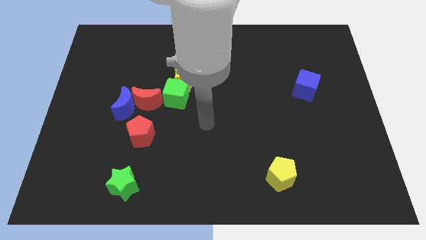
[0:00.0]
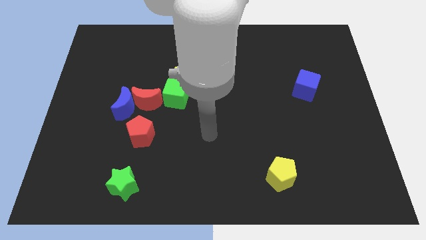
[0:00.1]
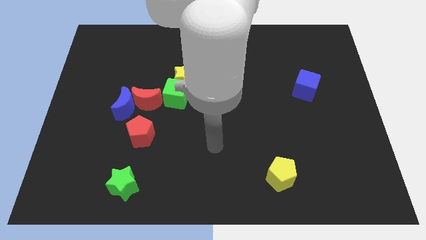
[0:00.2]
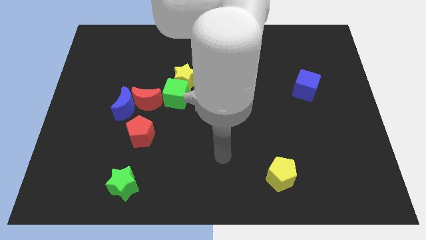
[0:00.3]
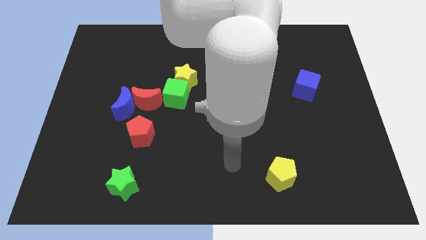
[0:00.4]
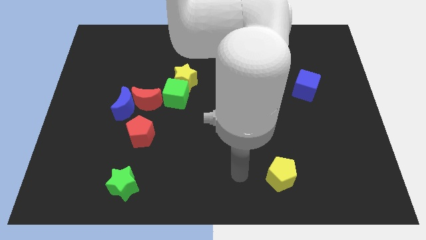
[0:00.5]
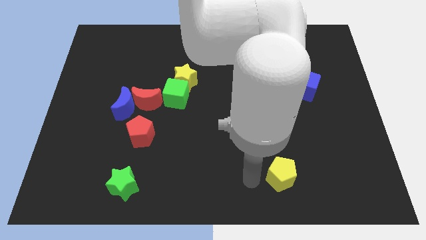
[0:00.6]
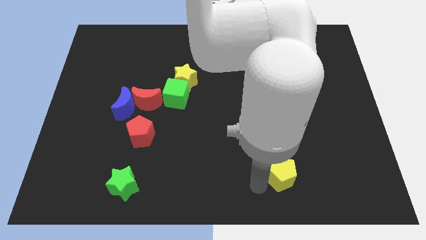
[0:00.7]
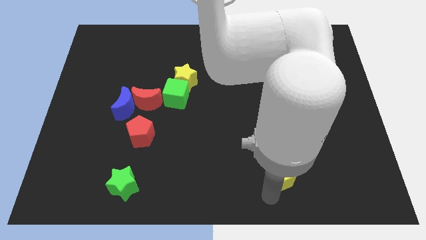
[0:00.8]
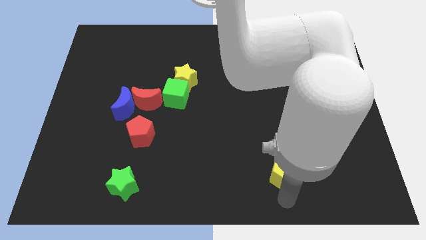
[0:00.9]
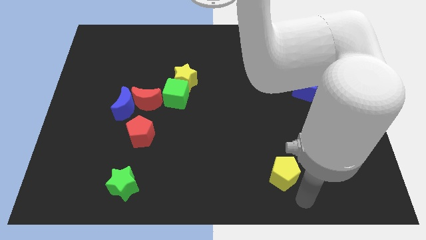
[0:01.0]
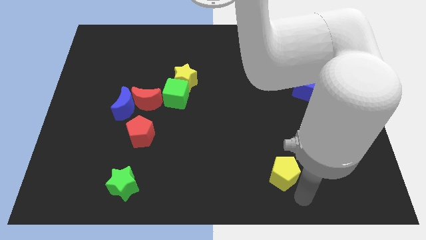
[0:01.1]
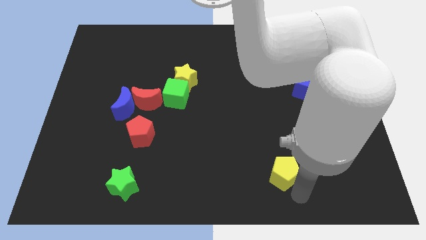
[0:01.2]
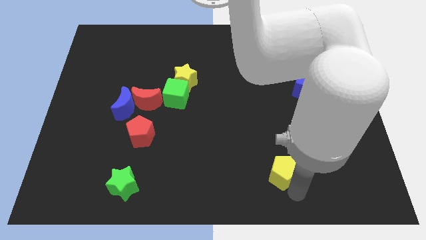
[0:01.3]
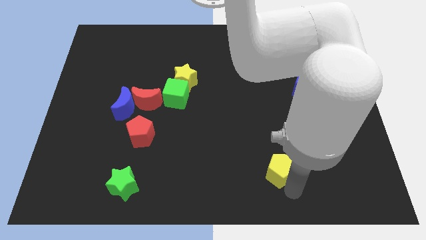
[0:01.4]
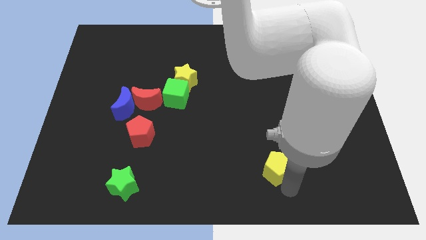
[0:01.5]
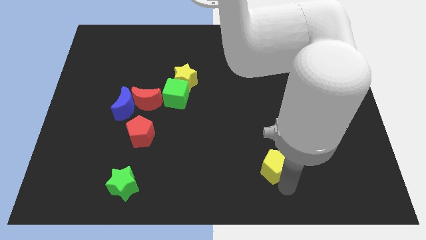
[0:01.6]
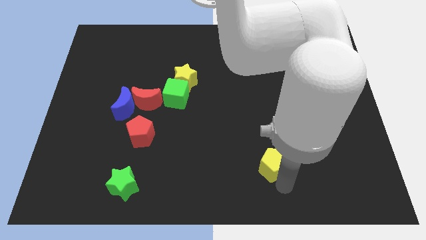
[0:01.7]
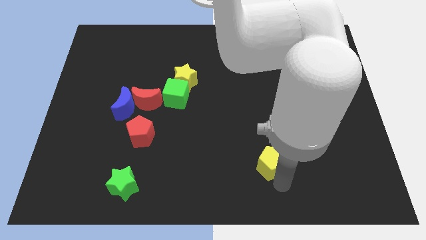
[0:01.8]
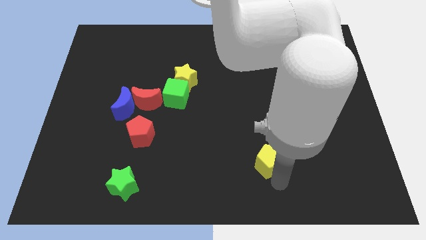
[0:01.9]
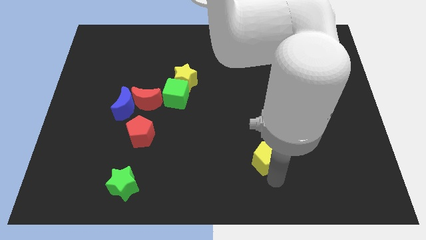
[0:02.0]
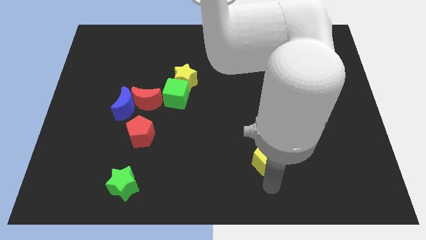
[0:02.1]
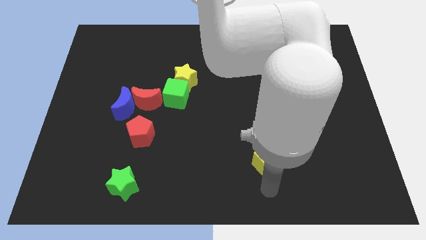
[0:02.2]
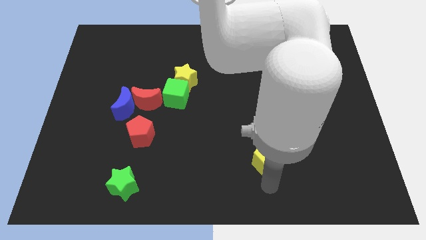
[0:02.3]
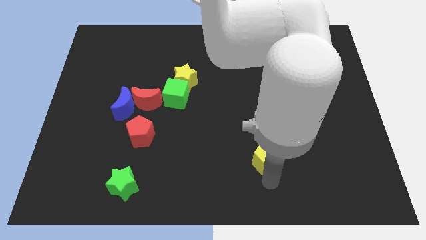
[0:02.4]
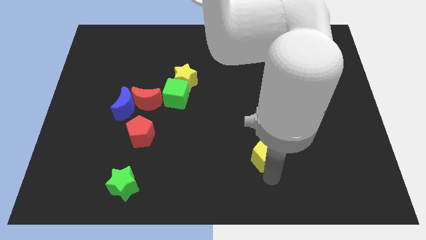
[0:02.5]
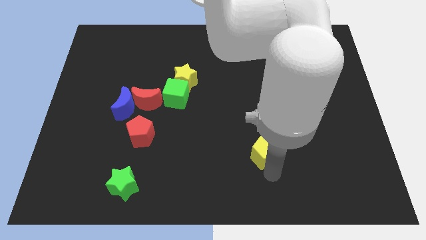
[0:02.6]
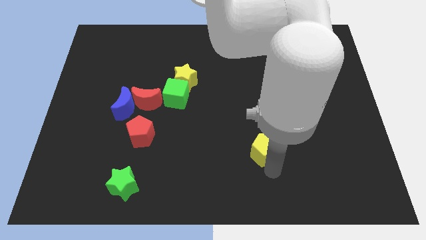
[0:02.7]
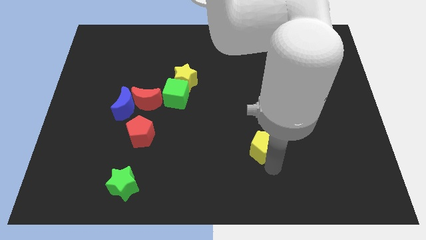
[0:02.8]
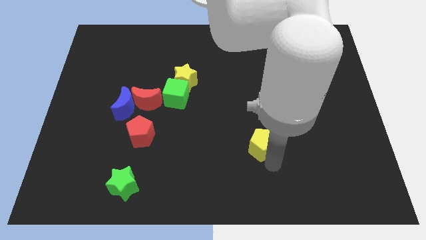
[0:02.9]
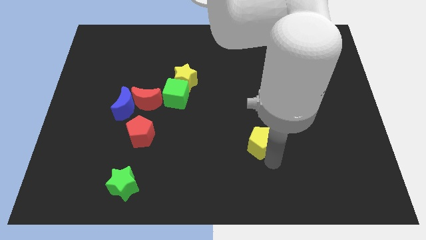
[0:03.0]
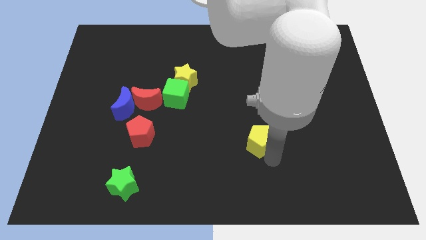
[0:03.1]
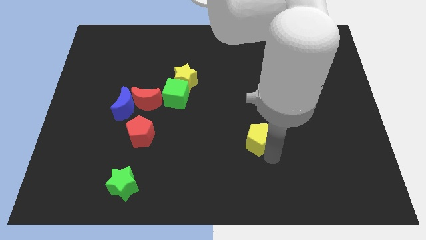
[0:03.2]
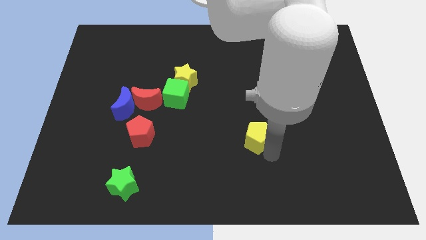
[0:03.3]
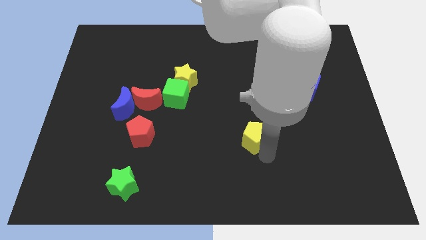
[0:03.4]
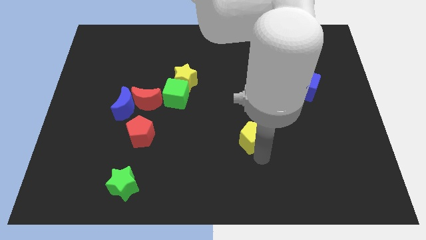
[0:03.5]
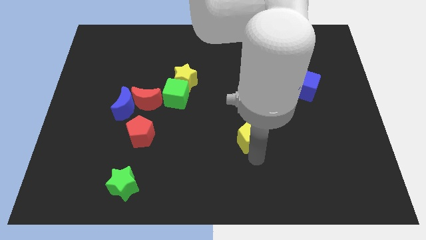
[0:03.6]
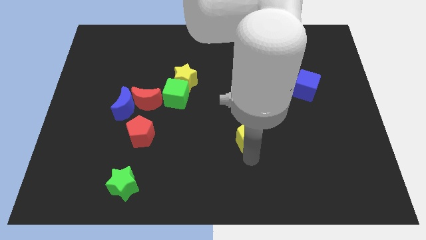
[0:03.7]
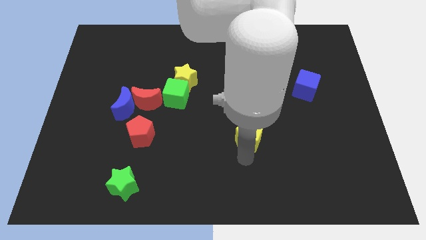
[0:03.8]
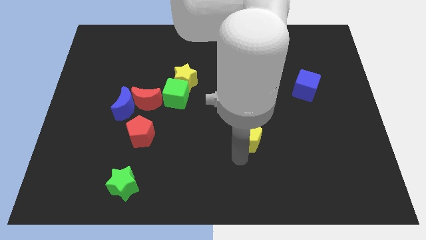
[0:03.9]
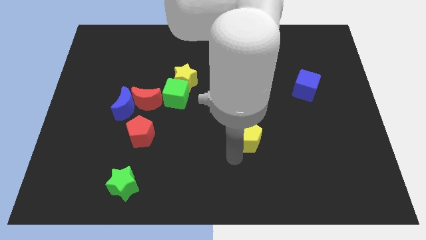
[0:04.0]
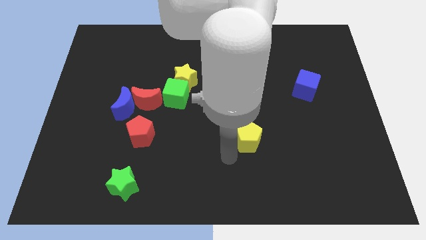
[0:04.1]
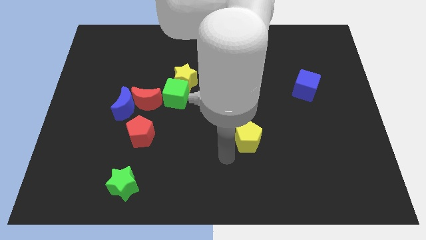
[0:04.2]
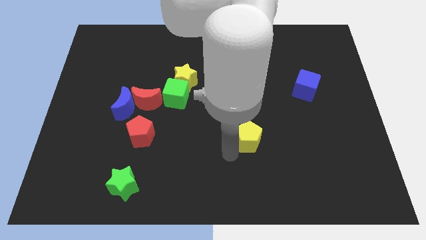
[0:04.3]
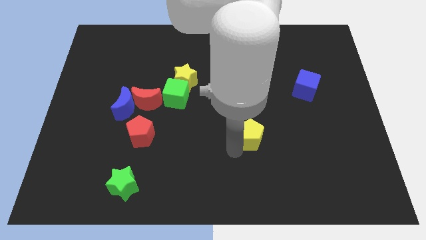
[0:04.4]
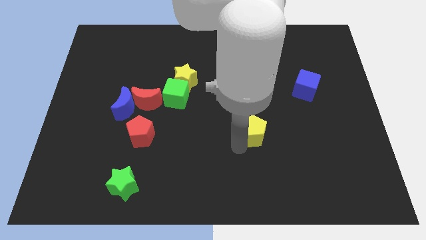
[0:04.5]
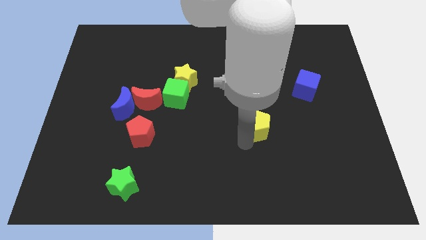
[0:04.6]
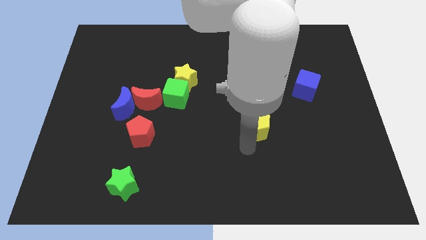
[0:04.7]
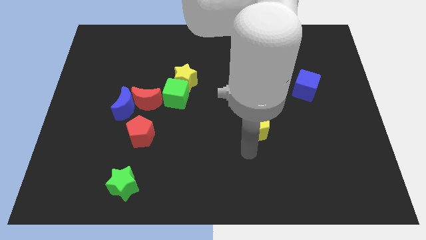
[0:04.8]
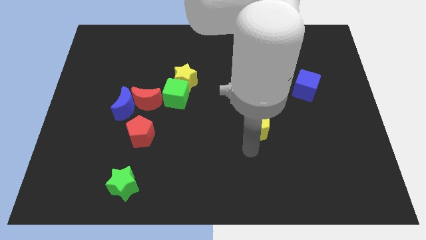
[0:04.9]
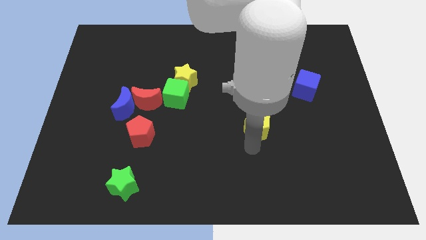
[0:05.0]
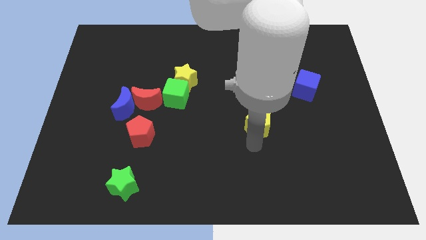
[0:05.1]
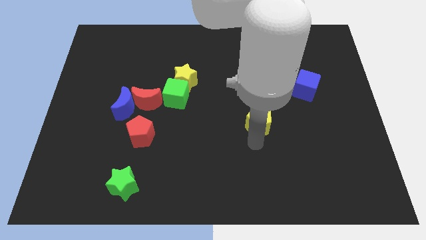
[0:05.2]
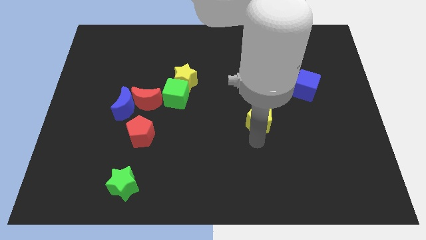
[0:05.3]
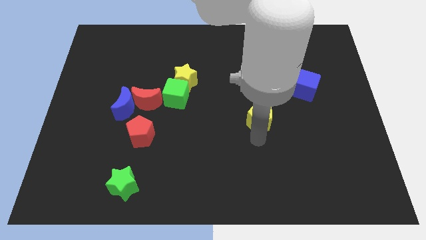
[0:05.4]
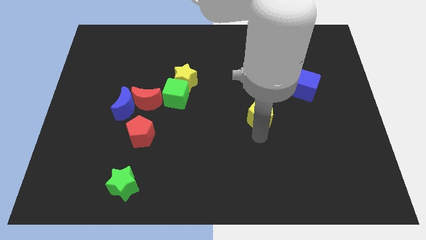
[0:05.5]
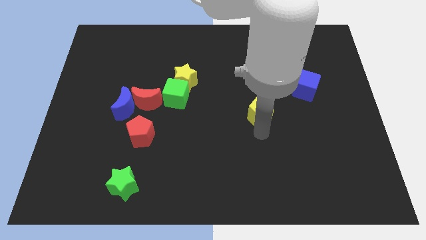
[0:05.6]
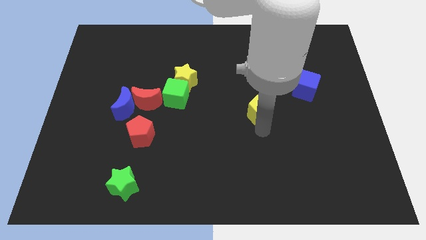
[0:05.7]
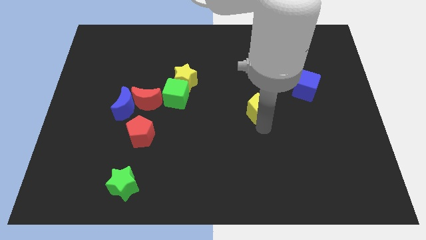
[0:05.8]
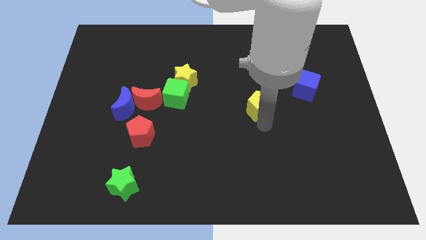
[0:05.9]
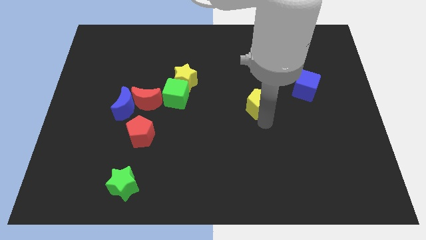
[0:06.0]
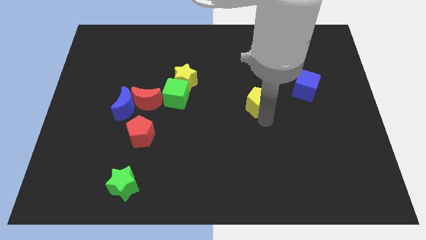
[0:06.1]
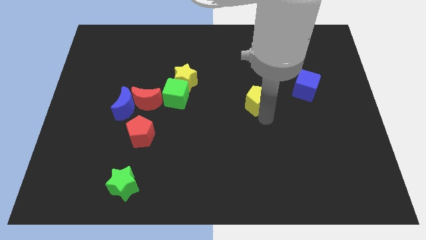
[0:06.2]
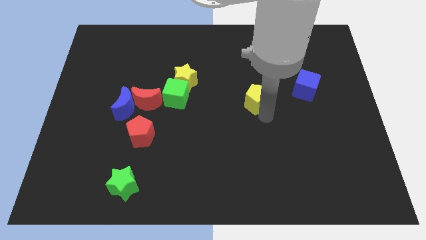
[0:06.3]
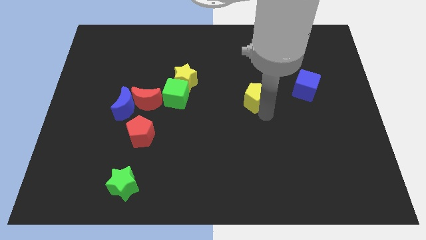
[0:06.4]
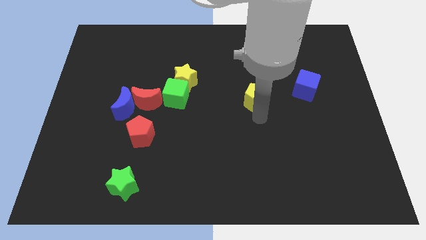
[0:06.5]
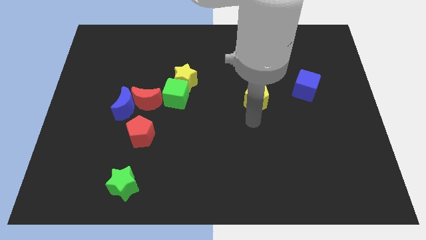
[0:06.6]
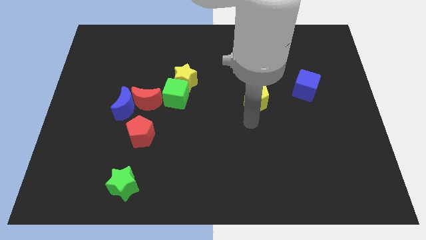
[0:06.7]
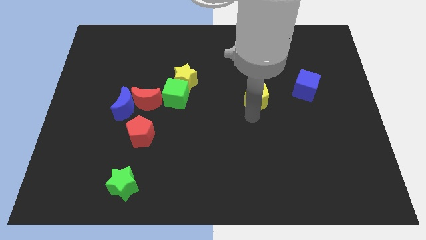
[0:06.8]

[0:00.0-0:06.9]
push the yellow pentagon upwards

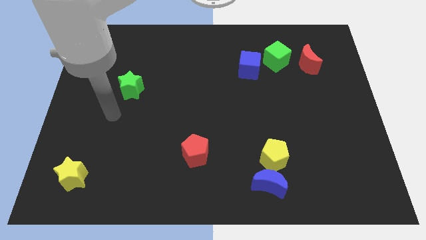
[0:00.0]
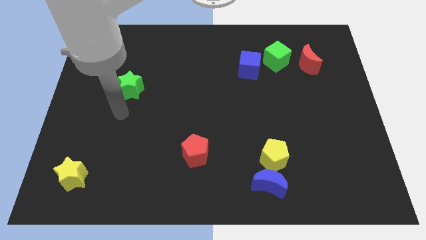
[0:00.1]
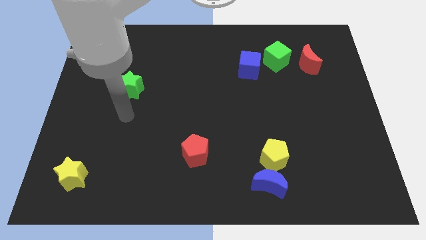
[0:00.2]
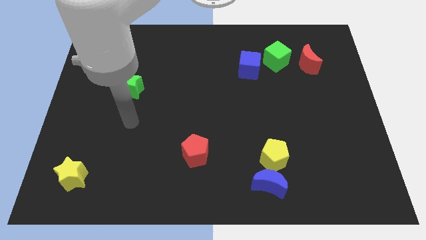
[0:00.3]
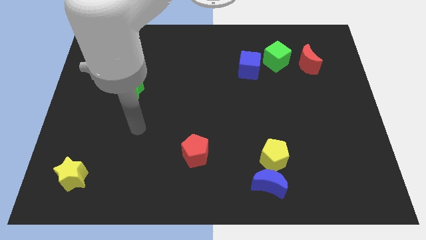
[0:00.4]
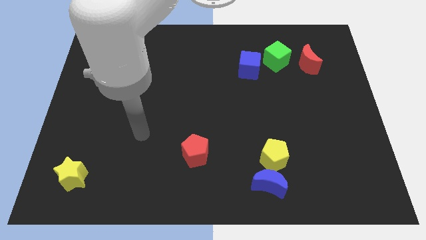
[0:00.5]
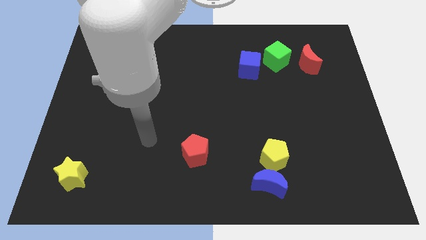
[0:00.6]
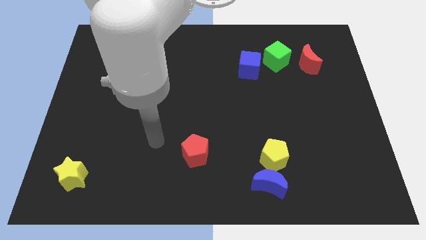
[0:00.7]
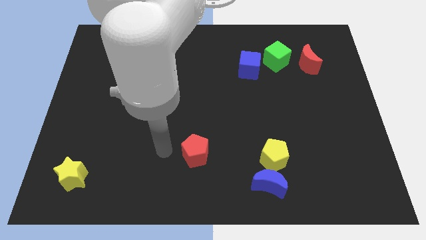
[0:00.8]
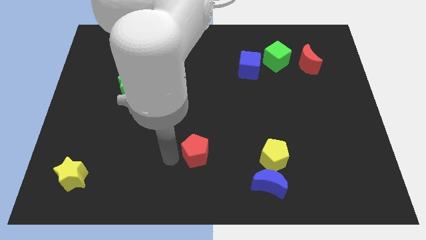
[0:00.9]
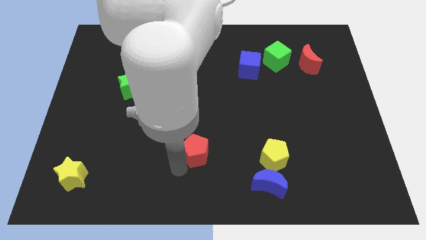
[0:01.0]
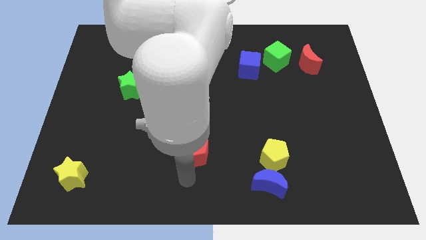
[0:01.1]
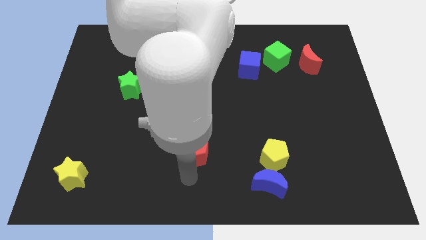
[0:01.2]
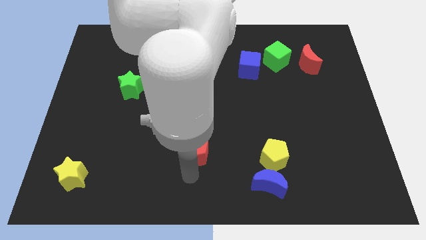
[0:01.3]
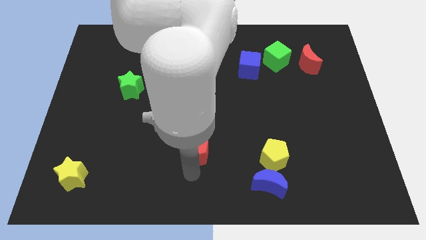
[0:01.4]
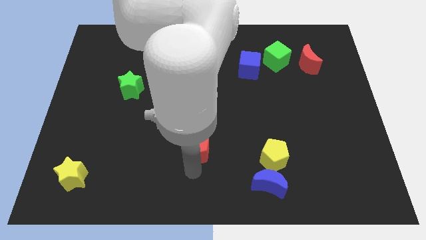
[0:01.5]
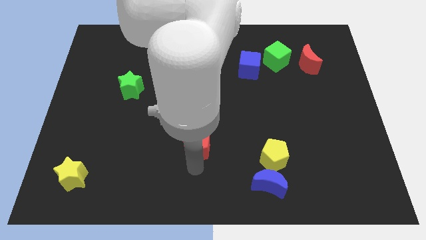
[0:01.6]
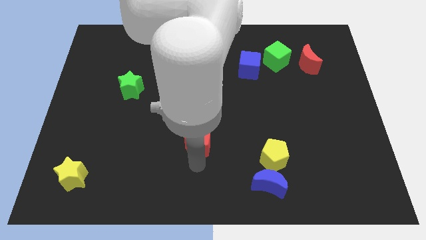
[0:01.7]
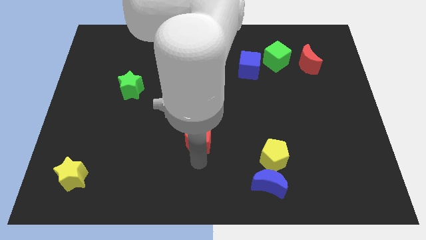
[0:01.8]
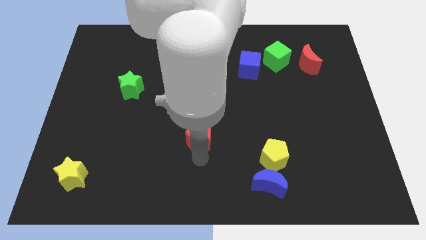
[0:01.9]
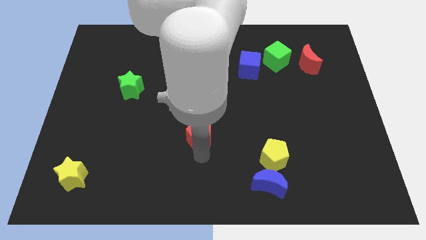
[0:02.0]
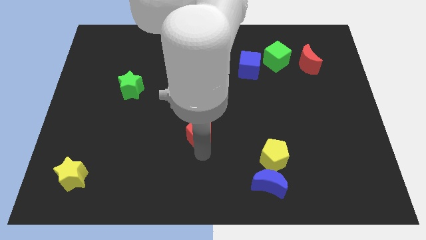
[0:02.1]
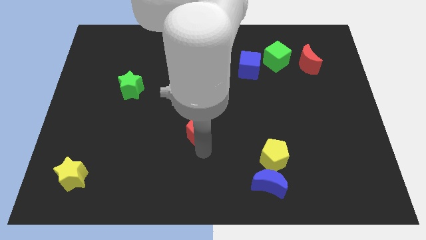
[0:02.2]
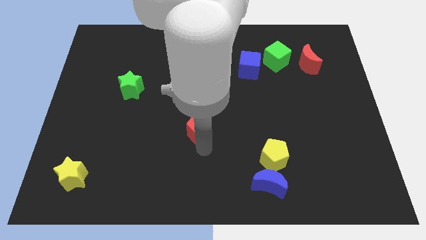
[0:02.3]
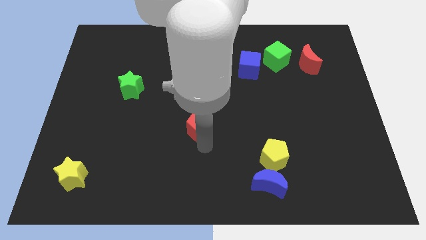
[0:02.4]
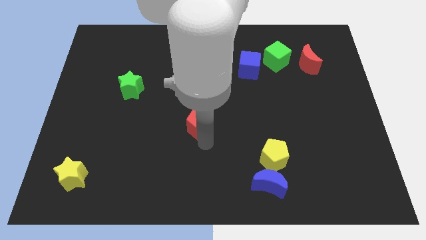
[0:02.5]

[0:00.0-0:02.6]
move the red pentagon up slightly
